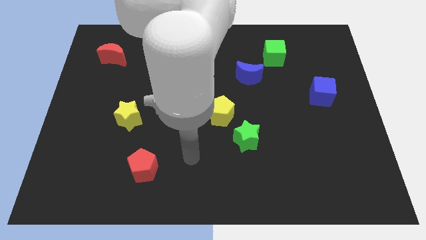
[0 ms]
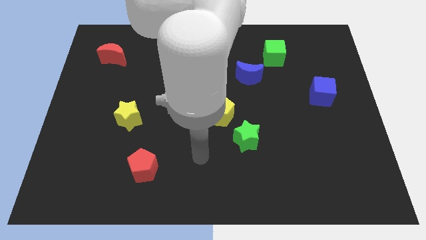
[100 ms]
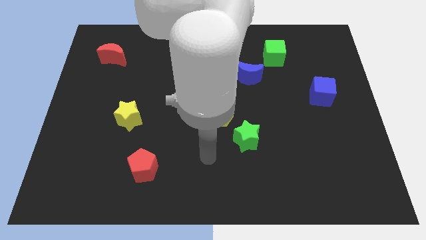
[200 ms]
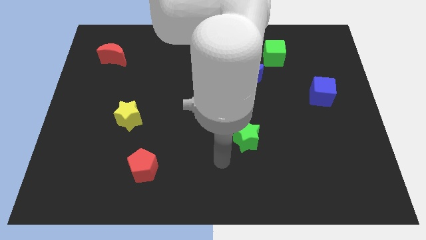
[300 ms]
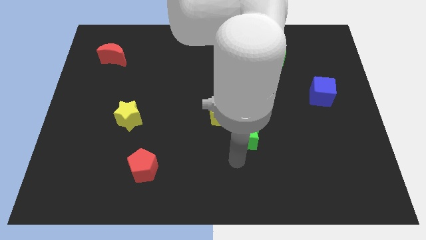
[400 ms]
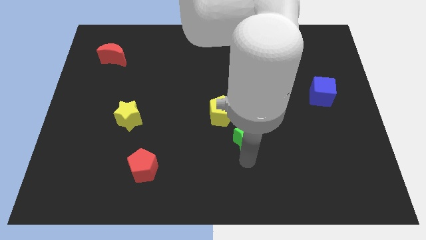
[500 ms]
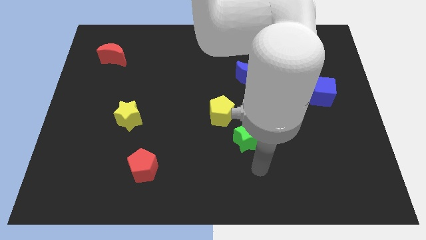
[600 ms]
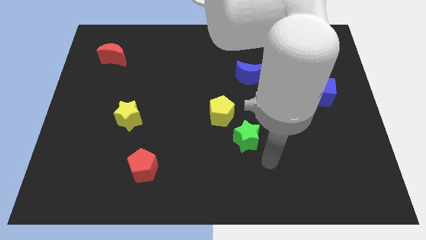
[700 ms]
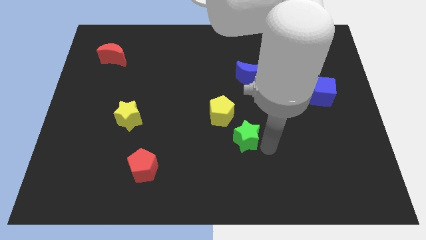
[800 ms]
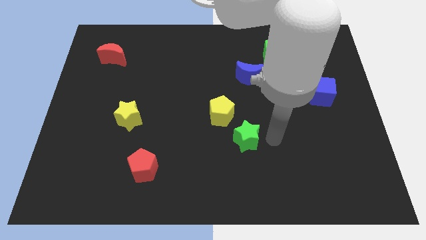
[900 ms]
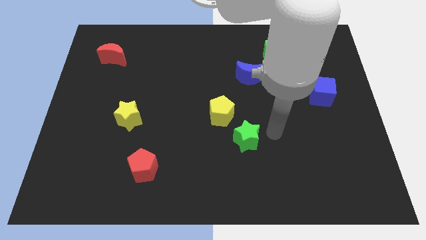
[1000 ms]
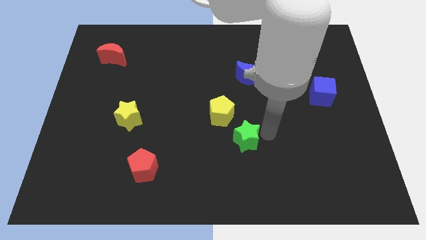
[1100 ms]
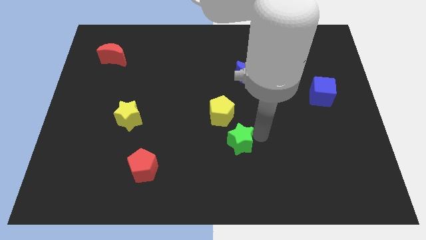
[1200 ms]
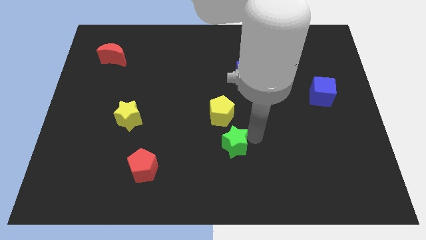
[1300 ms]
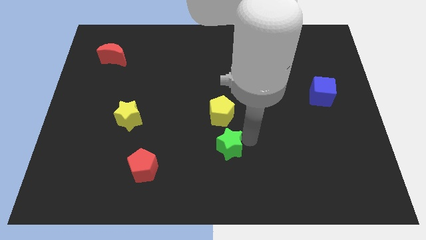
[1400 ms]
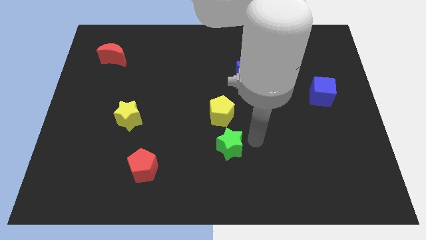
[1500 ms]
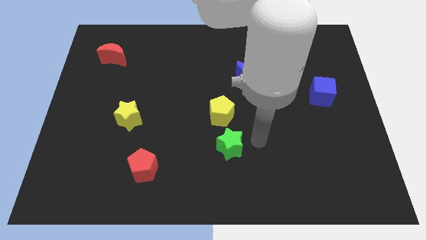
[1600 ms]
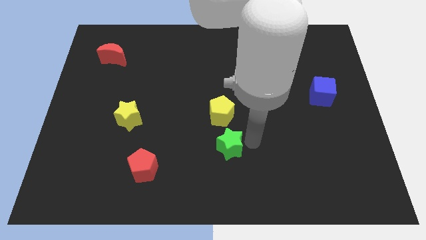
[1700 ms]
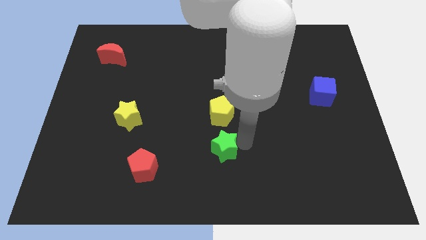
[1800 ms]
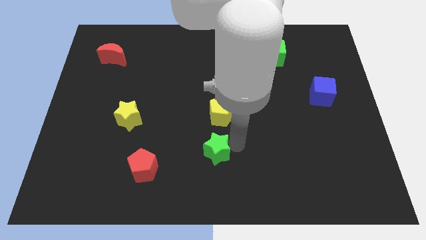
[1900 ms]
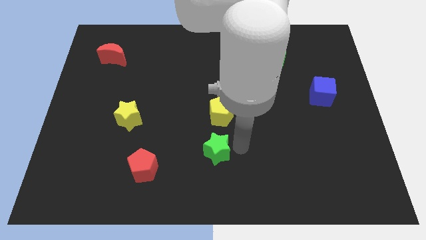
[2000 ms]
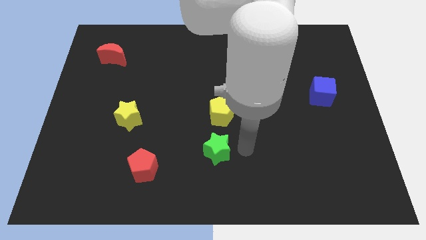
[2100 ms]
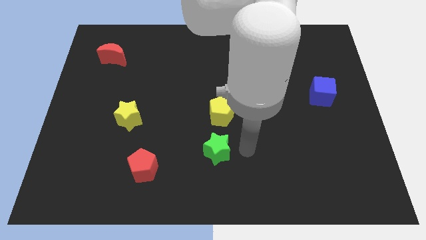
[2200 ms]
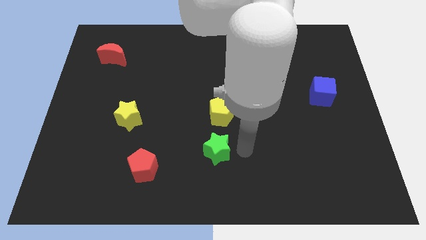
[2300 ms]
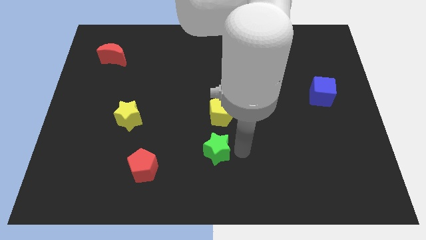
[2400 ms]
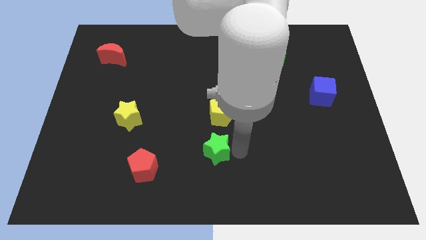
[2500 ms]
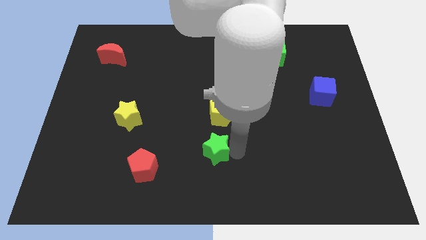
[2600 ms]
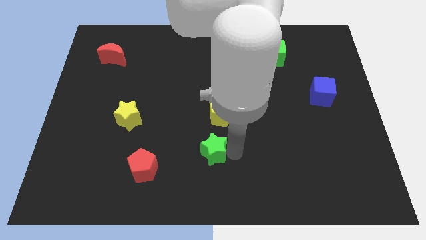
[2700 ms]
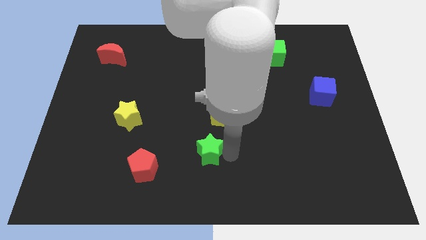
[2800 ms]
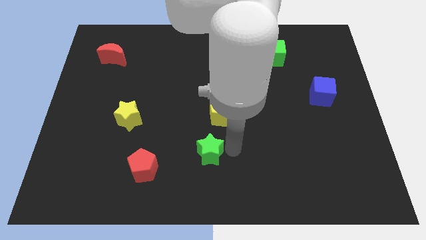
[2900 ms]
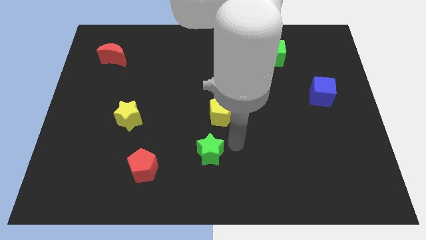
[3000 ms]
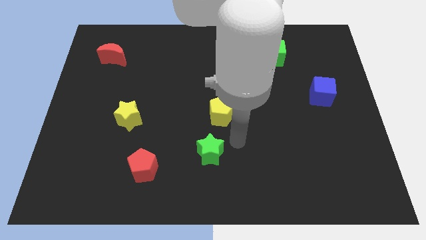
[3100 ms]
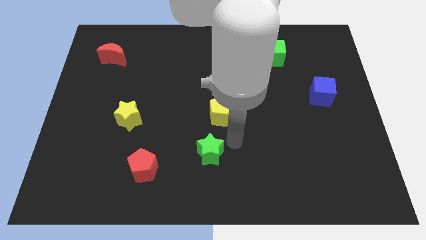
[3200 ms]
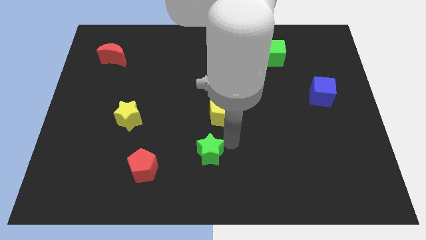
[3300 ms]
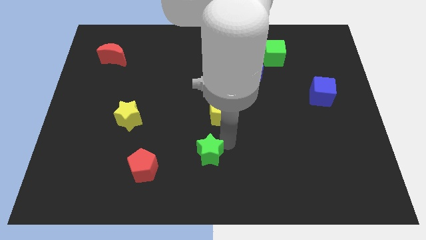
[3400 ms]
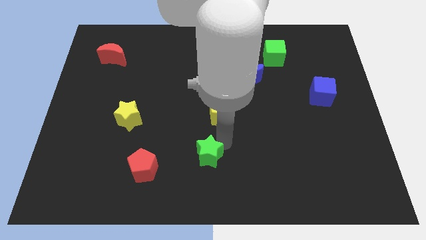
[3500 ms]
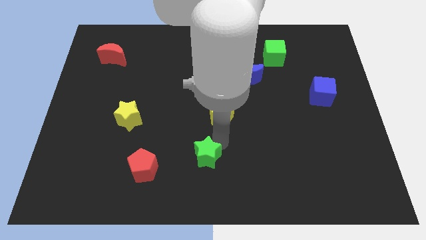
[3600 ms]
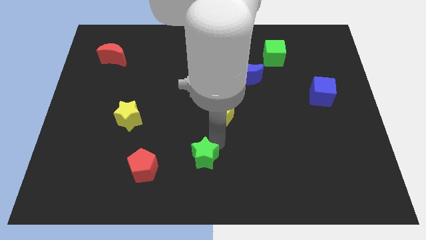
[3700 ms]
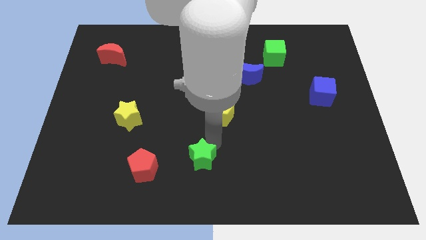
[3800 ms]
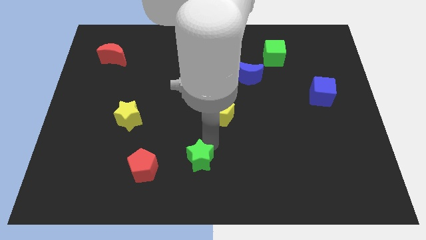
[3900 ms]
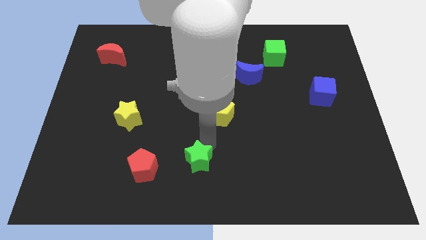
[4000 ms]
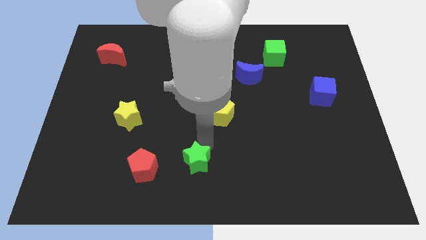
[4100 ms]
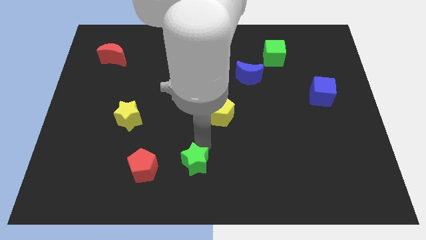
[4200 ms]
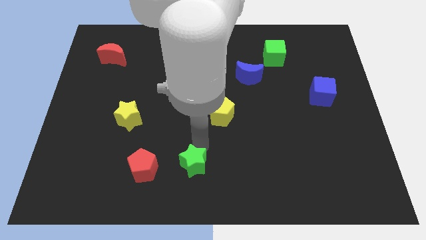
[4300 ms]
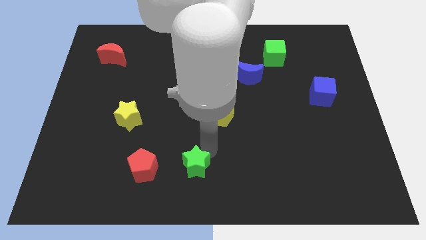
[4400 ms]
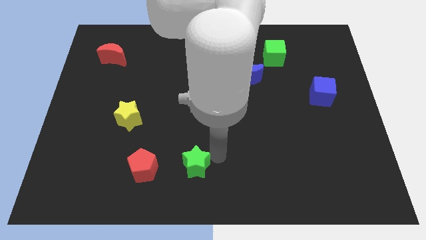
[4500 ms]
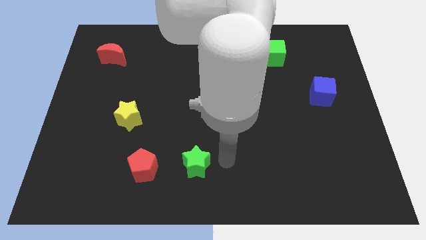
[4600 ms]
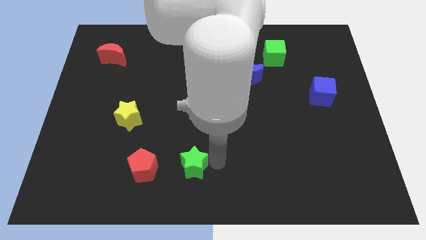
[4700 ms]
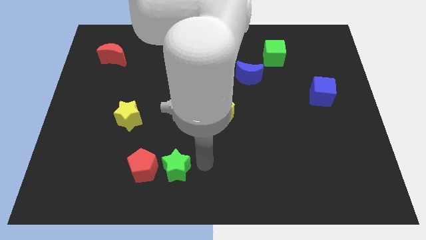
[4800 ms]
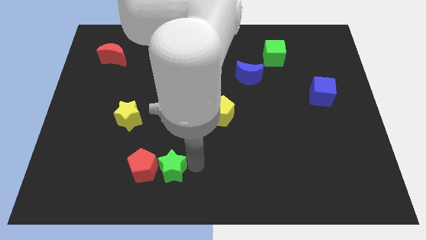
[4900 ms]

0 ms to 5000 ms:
push the green star close to the red pentagon

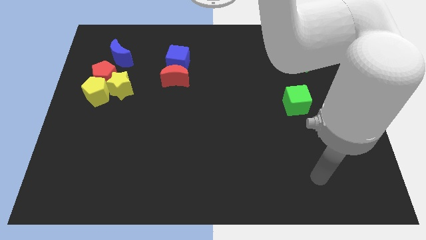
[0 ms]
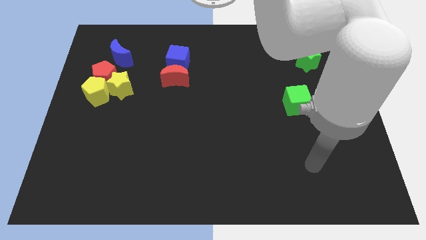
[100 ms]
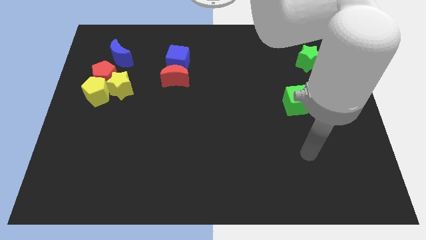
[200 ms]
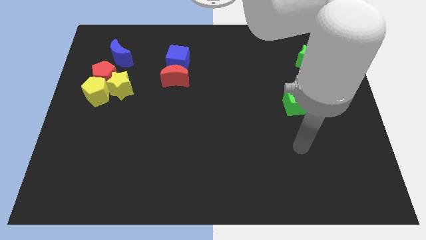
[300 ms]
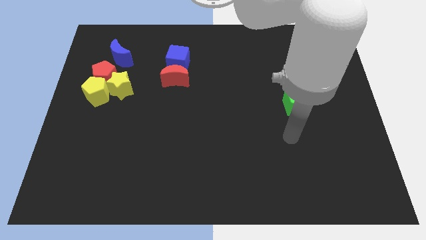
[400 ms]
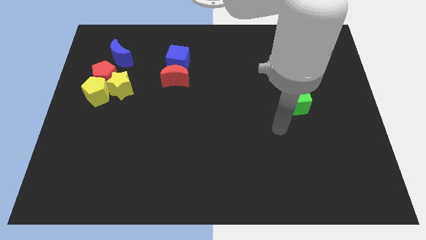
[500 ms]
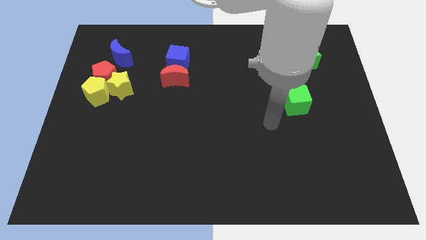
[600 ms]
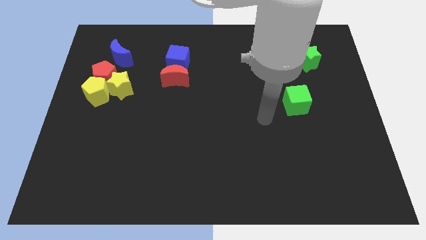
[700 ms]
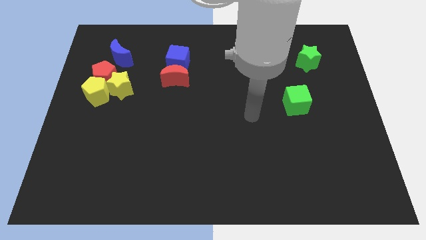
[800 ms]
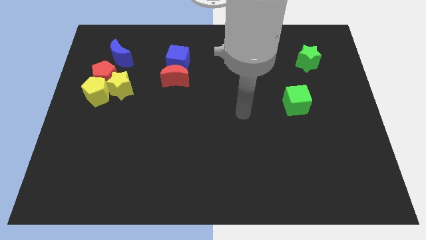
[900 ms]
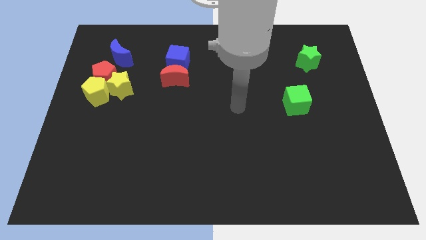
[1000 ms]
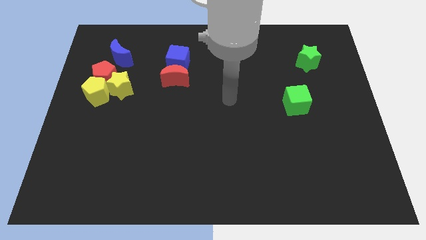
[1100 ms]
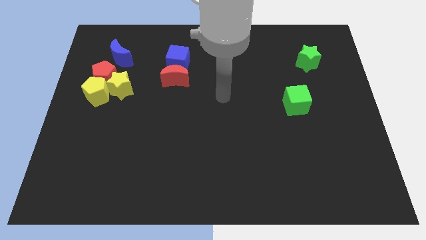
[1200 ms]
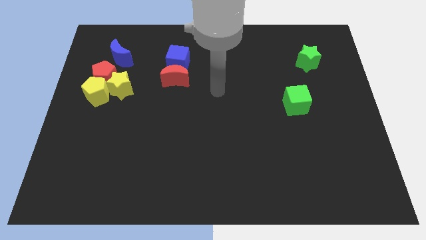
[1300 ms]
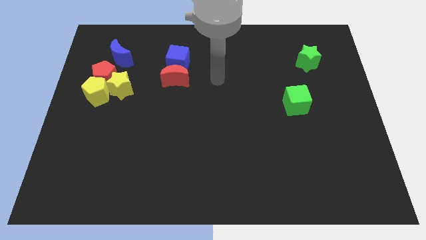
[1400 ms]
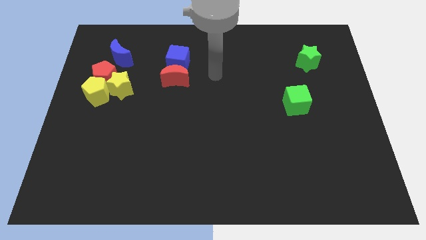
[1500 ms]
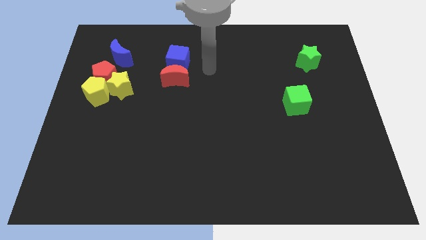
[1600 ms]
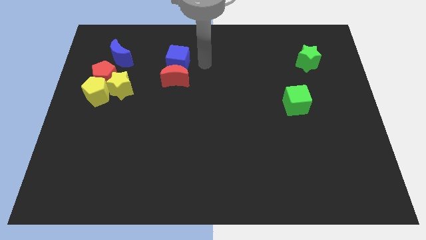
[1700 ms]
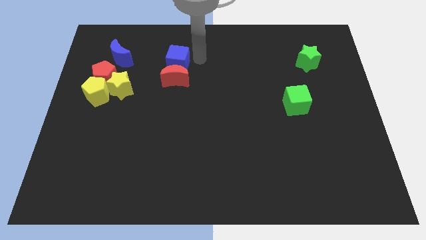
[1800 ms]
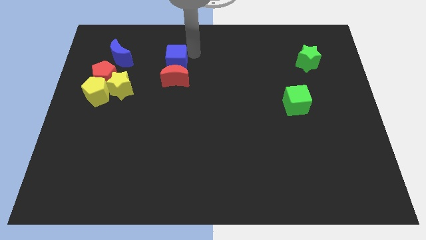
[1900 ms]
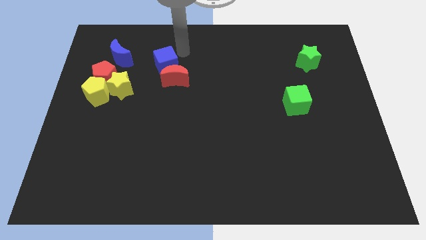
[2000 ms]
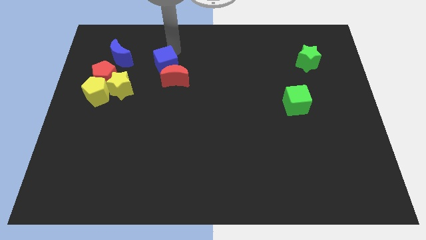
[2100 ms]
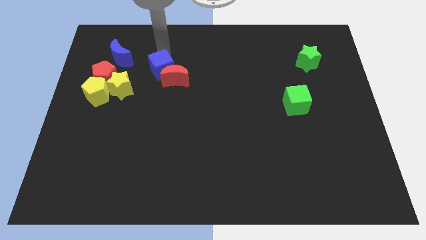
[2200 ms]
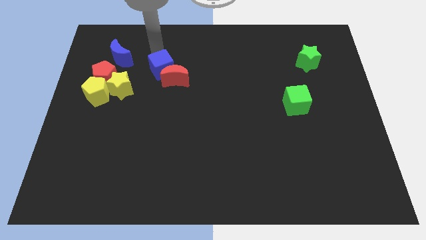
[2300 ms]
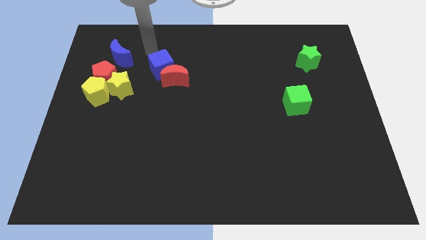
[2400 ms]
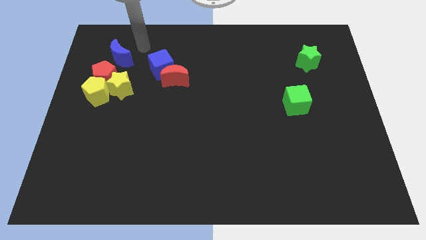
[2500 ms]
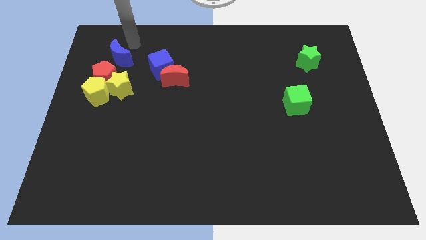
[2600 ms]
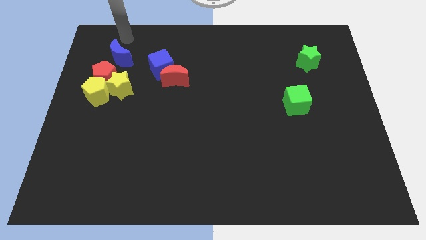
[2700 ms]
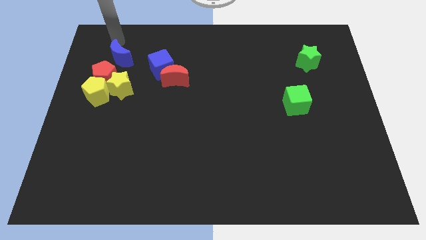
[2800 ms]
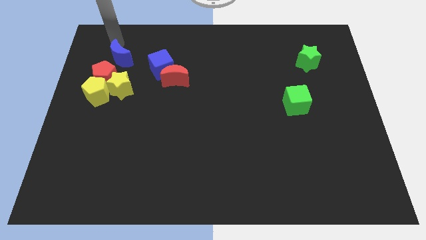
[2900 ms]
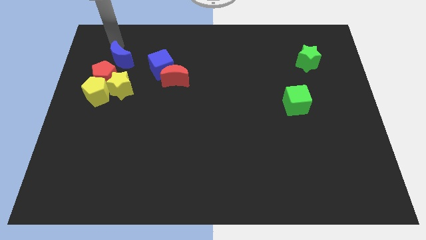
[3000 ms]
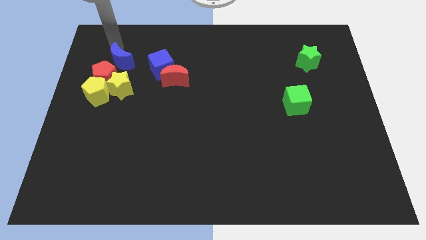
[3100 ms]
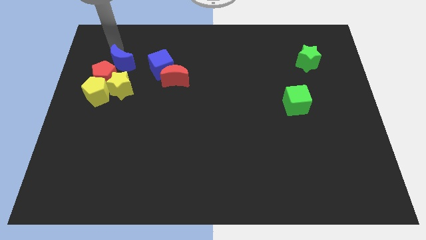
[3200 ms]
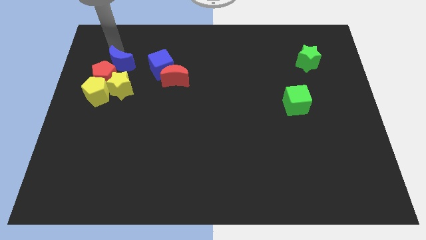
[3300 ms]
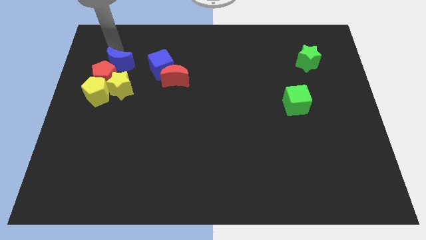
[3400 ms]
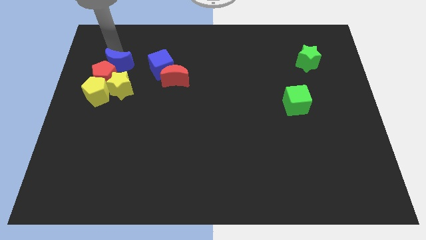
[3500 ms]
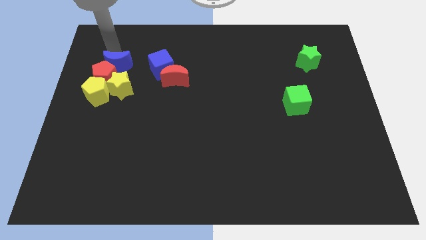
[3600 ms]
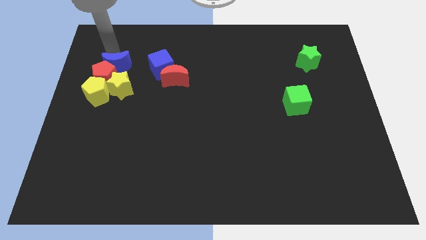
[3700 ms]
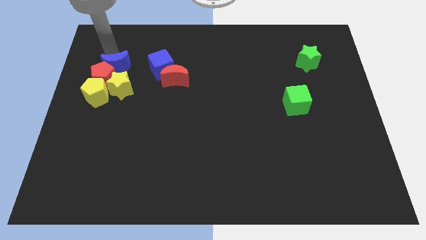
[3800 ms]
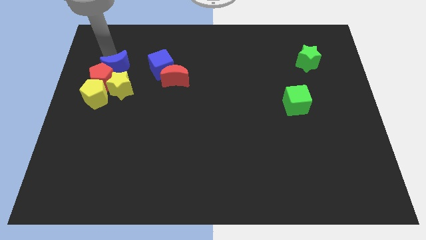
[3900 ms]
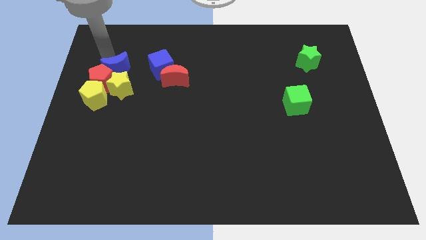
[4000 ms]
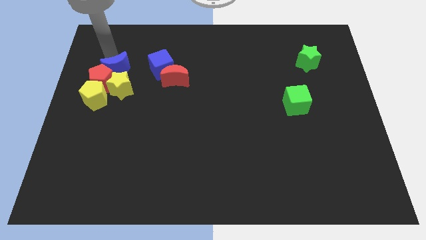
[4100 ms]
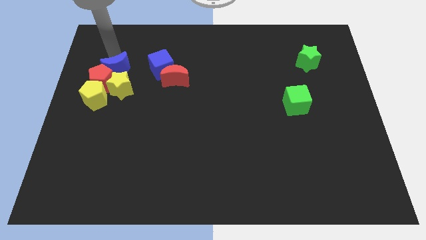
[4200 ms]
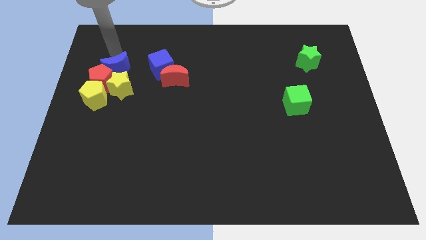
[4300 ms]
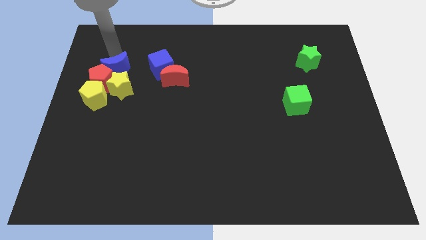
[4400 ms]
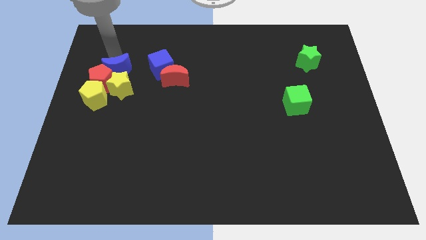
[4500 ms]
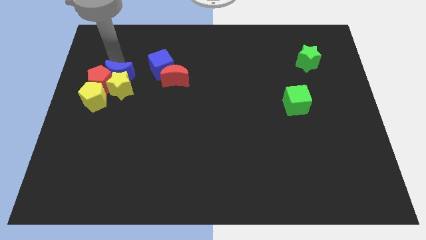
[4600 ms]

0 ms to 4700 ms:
slide the blue moon next to the yellow star
